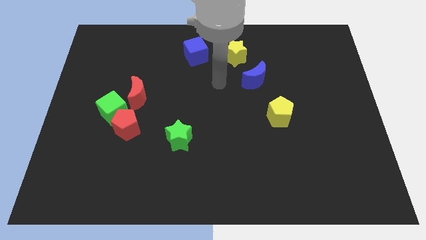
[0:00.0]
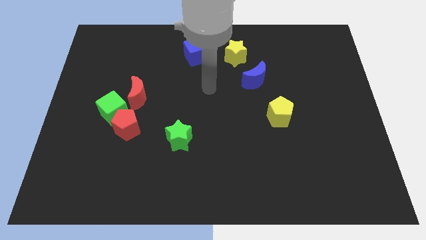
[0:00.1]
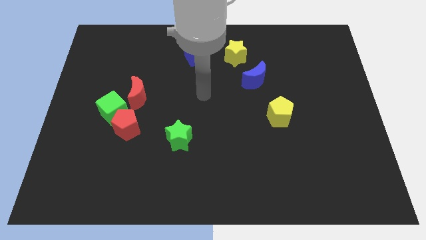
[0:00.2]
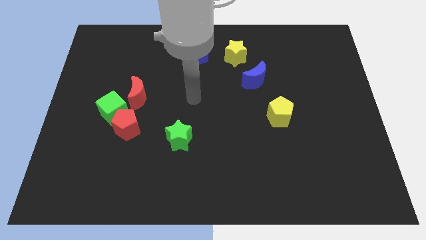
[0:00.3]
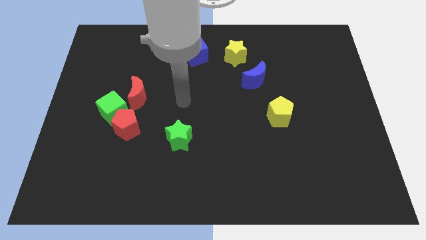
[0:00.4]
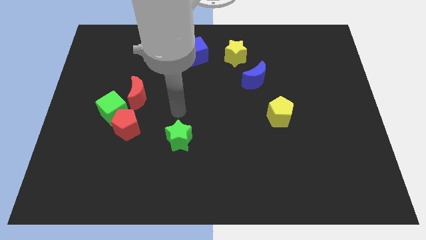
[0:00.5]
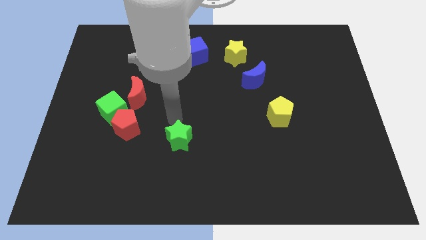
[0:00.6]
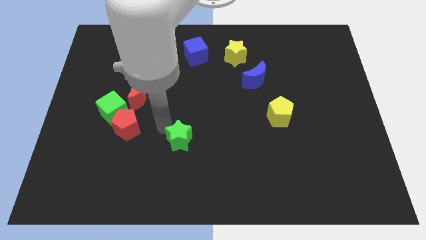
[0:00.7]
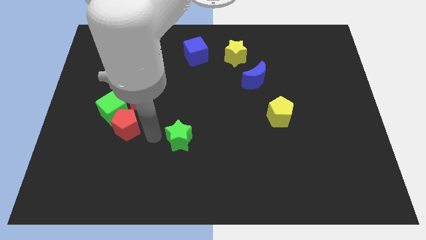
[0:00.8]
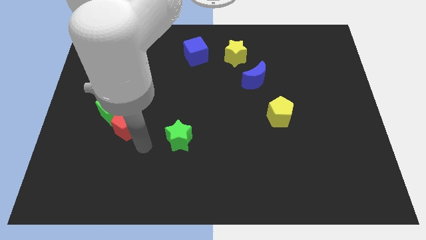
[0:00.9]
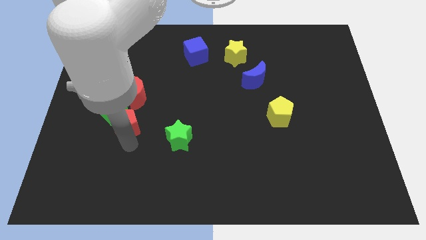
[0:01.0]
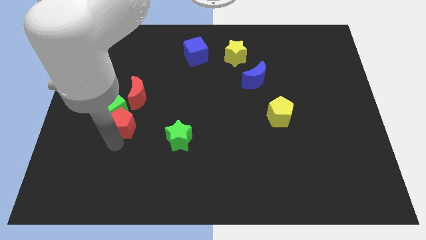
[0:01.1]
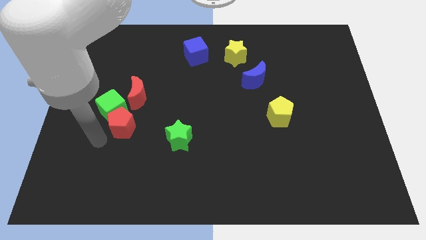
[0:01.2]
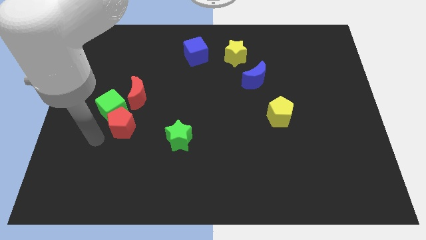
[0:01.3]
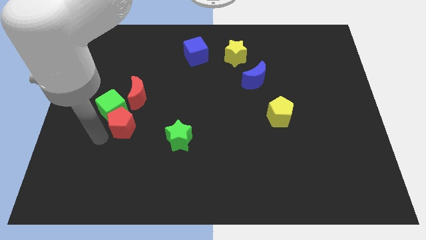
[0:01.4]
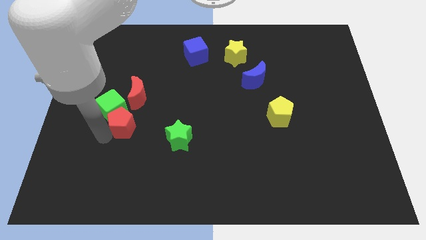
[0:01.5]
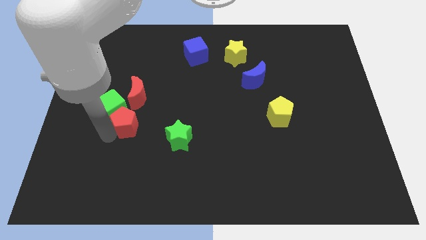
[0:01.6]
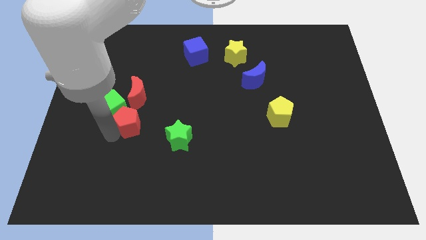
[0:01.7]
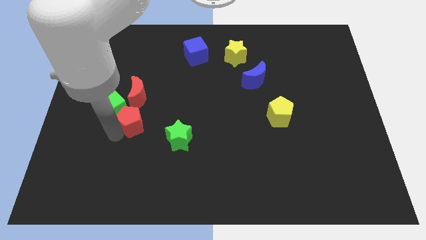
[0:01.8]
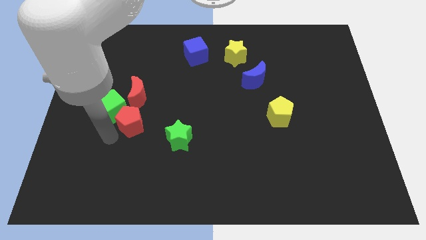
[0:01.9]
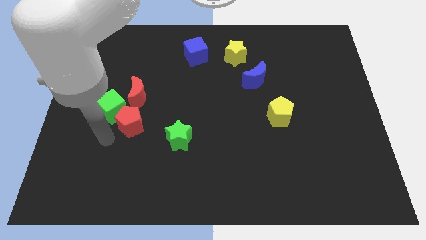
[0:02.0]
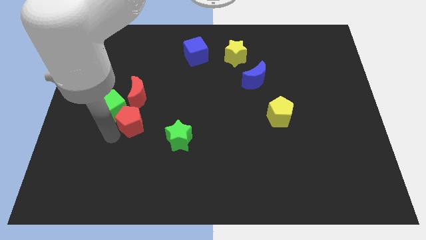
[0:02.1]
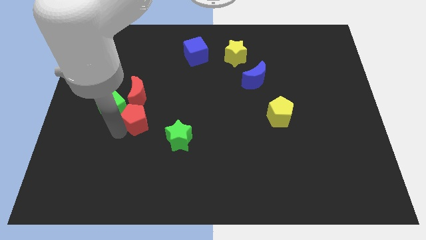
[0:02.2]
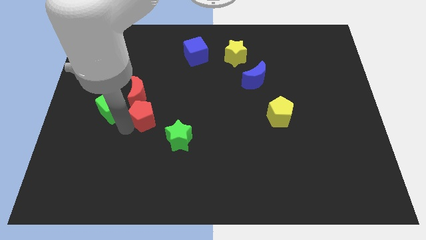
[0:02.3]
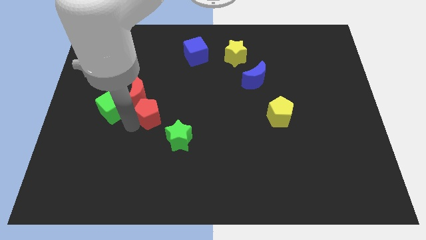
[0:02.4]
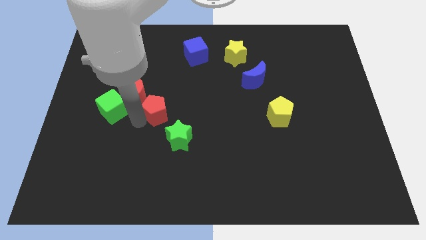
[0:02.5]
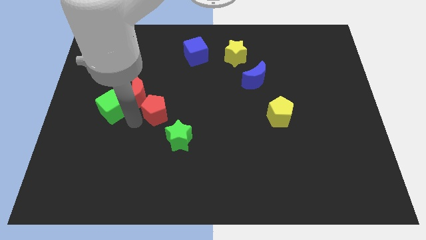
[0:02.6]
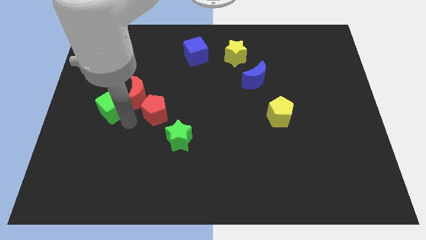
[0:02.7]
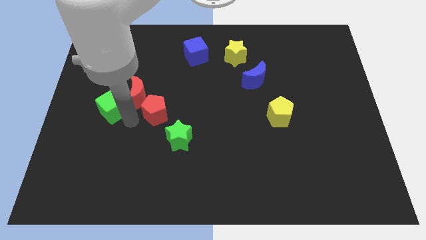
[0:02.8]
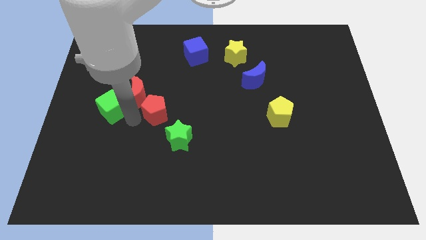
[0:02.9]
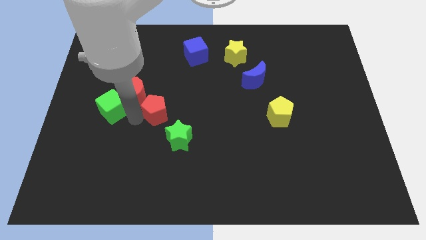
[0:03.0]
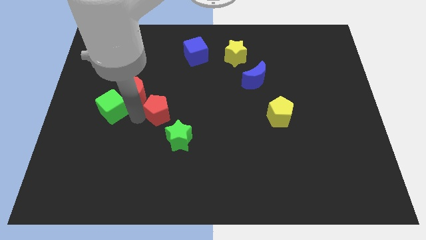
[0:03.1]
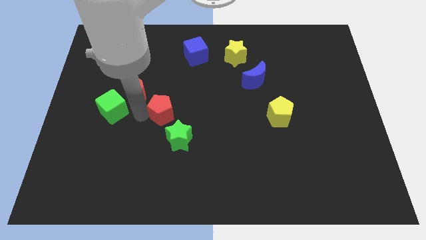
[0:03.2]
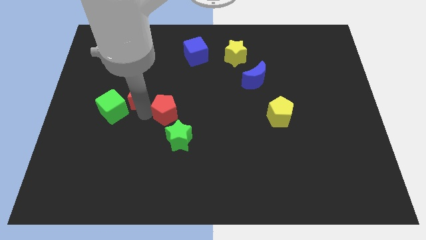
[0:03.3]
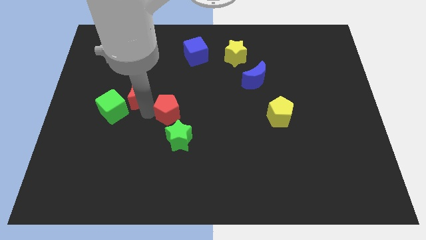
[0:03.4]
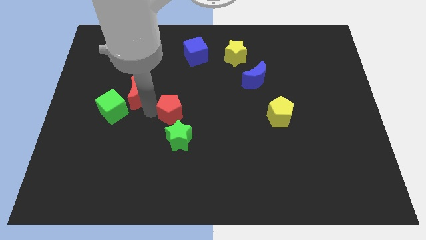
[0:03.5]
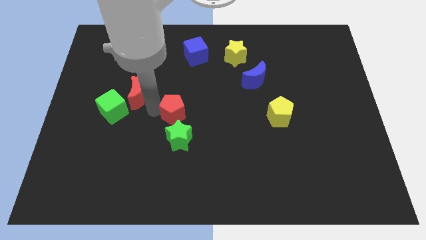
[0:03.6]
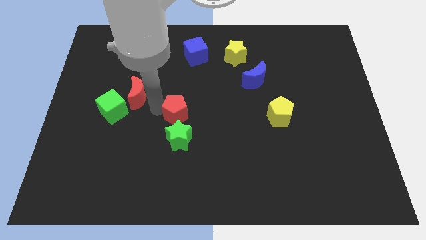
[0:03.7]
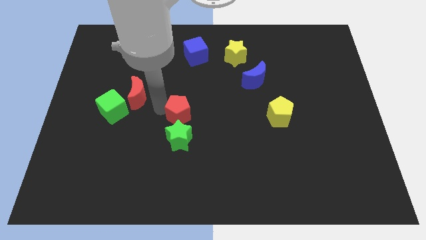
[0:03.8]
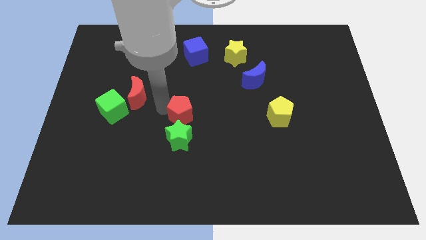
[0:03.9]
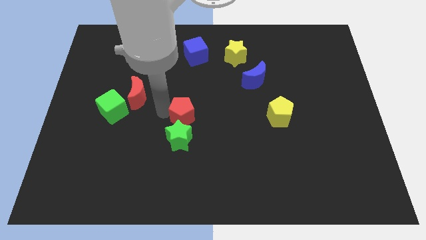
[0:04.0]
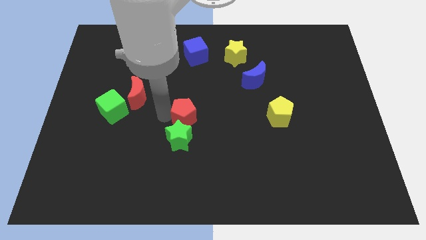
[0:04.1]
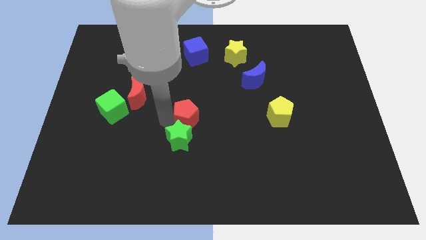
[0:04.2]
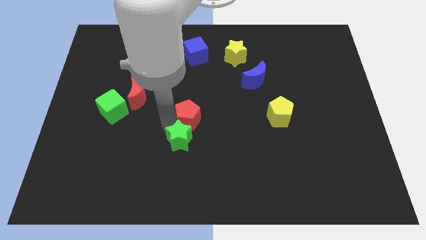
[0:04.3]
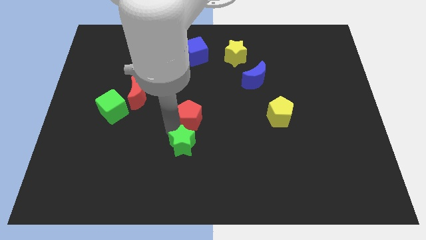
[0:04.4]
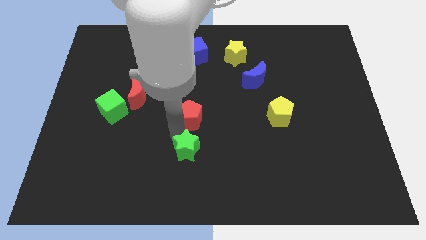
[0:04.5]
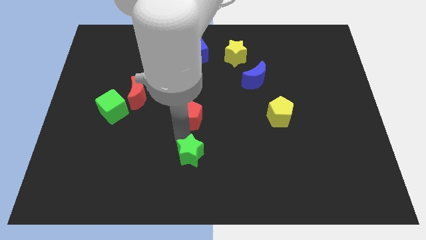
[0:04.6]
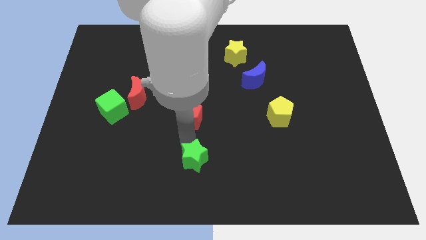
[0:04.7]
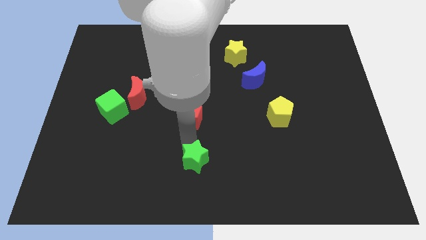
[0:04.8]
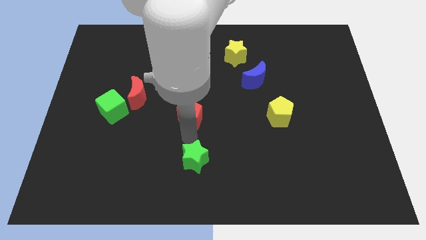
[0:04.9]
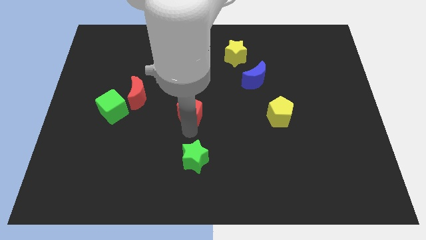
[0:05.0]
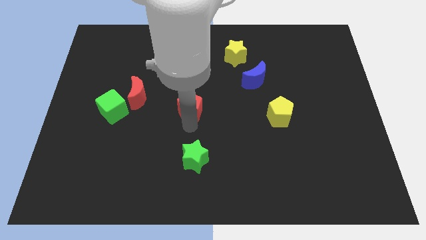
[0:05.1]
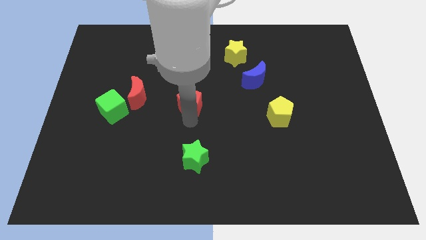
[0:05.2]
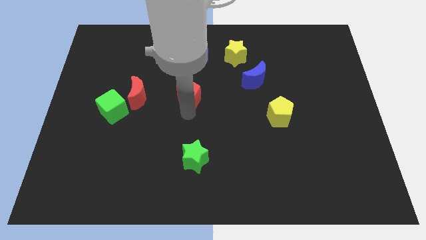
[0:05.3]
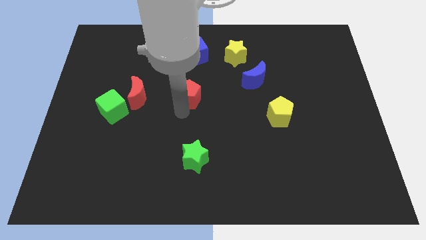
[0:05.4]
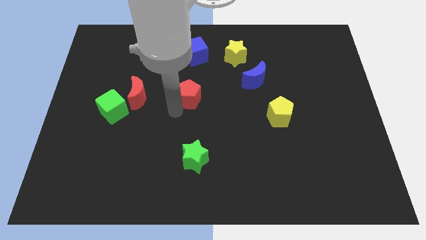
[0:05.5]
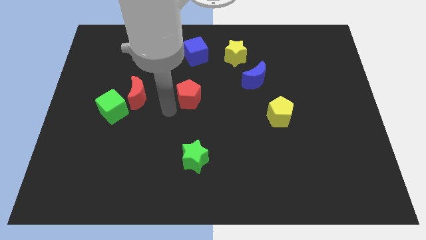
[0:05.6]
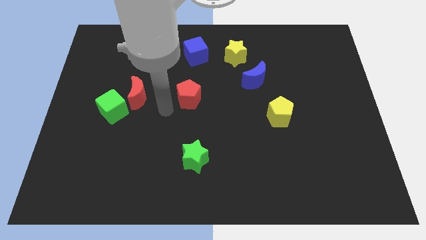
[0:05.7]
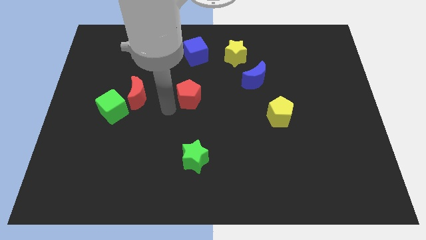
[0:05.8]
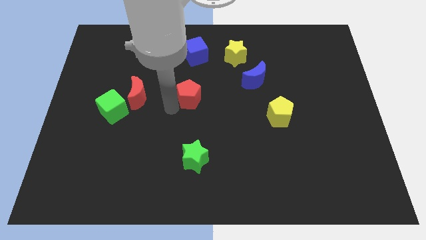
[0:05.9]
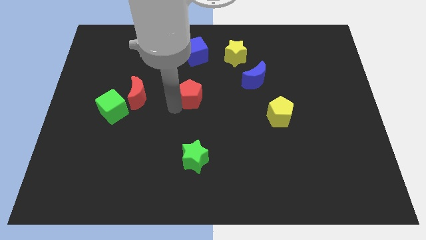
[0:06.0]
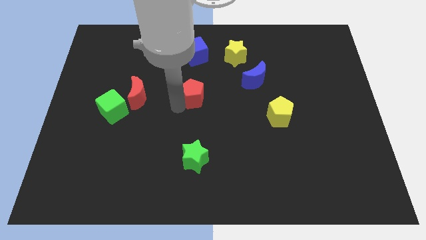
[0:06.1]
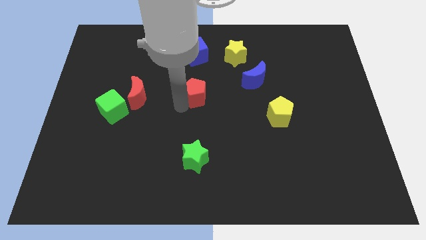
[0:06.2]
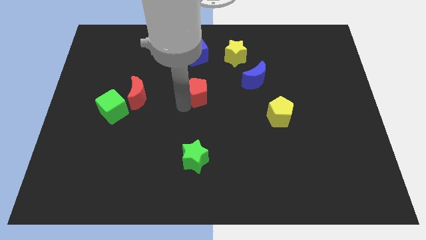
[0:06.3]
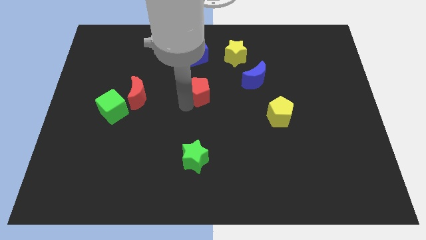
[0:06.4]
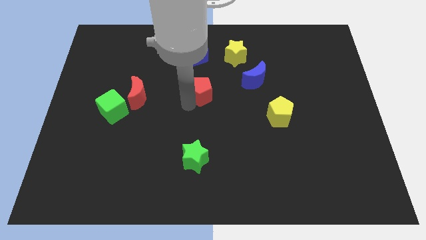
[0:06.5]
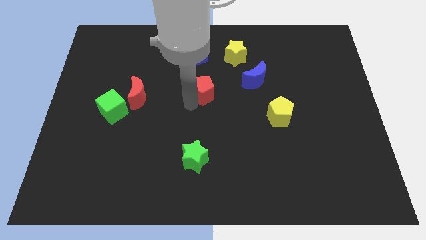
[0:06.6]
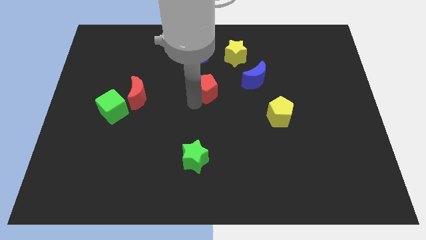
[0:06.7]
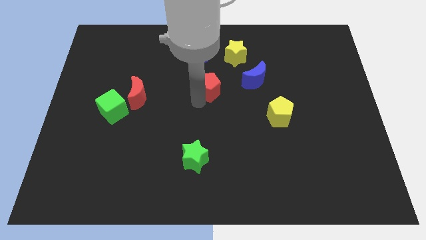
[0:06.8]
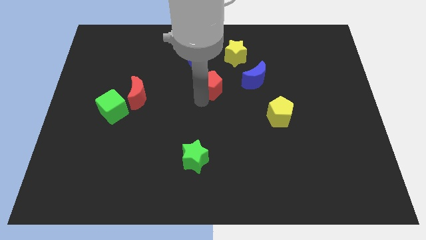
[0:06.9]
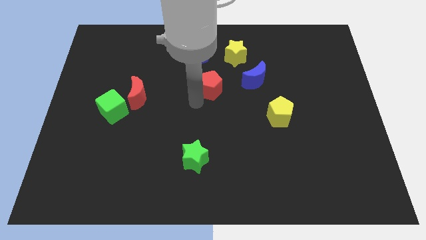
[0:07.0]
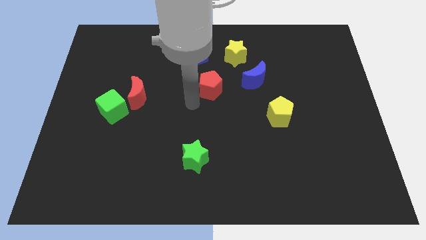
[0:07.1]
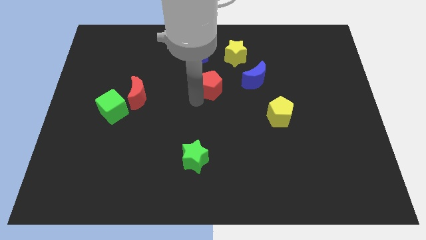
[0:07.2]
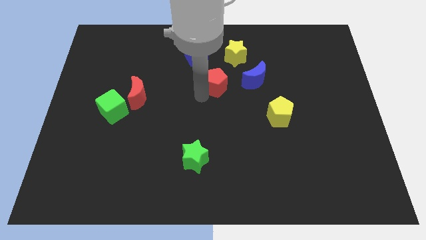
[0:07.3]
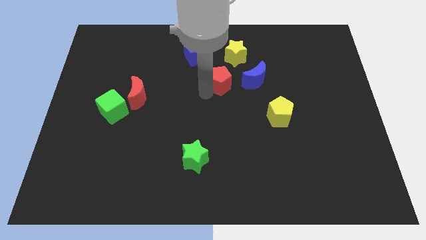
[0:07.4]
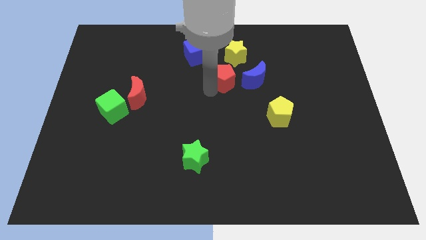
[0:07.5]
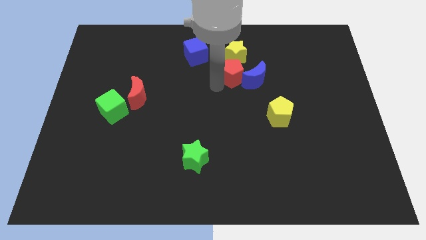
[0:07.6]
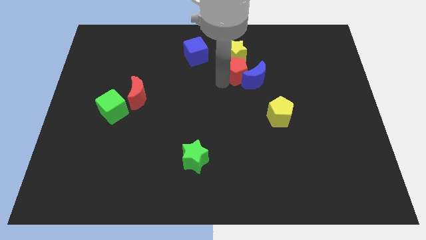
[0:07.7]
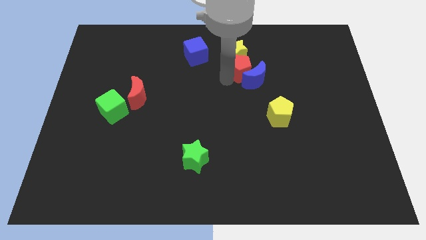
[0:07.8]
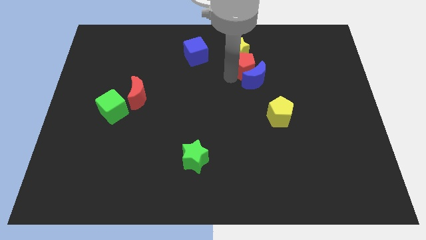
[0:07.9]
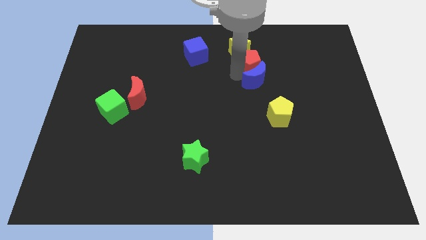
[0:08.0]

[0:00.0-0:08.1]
push the red pentagon to the right of the blue cube
